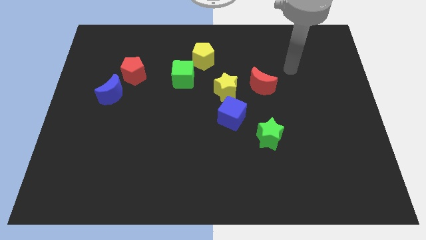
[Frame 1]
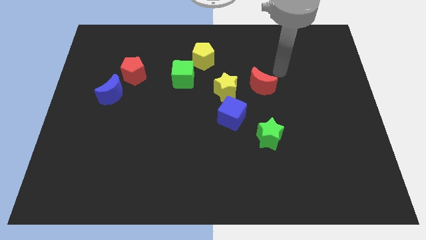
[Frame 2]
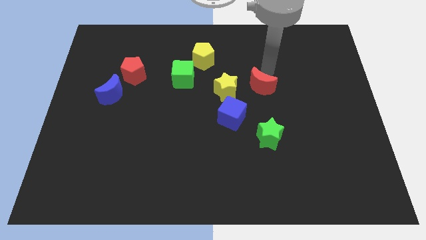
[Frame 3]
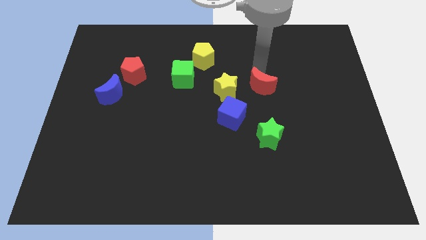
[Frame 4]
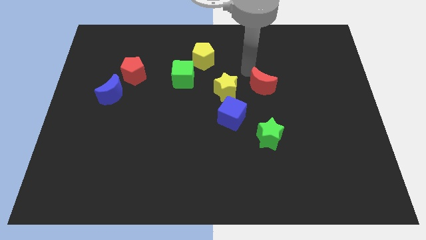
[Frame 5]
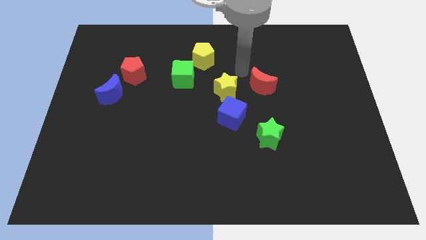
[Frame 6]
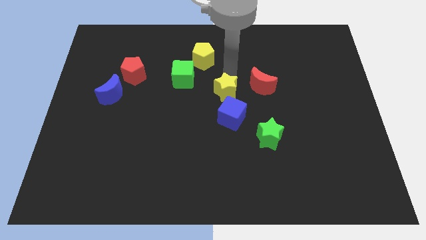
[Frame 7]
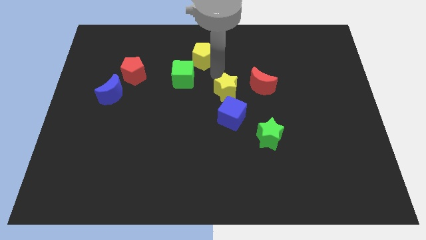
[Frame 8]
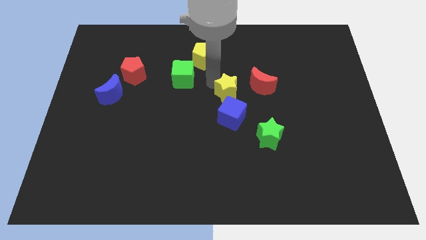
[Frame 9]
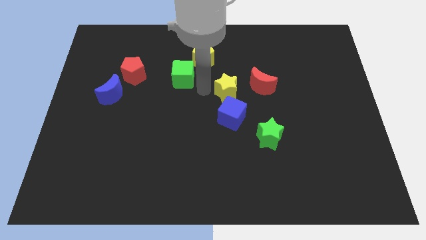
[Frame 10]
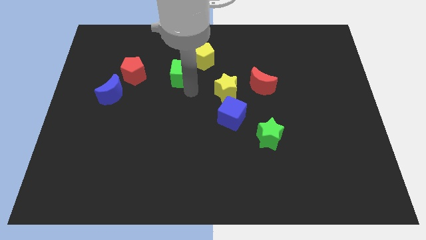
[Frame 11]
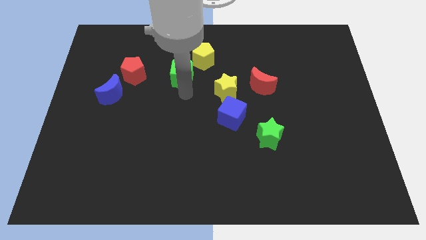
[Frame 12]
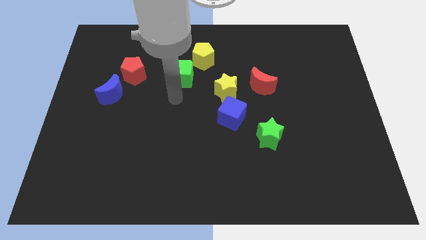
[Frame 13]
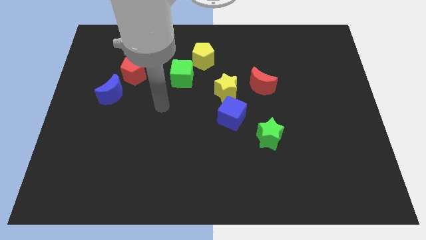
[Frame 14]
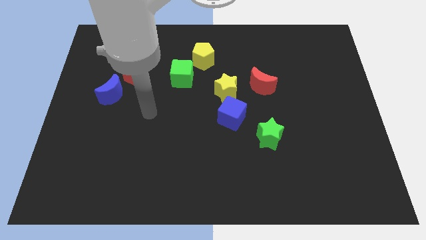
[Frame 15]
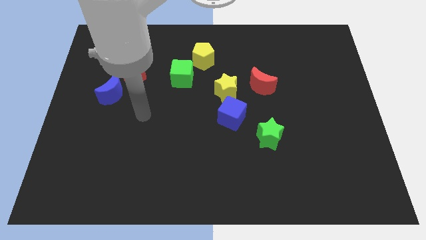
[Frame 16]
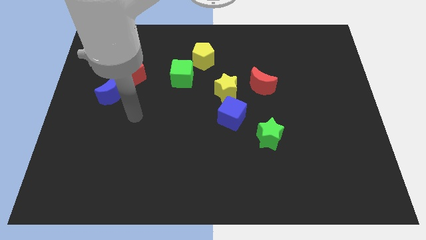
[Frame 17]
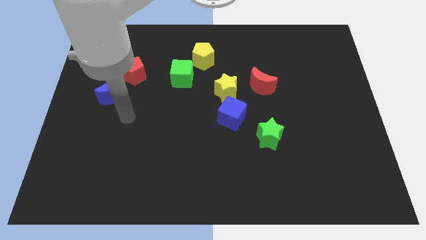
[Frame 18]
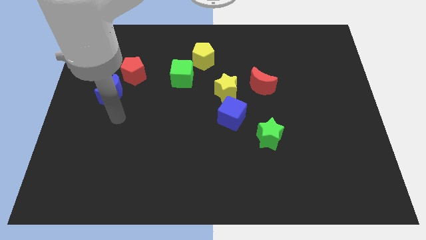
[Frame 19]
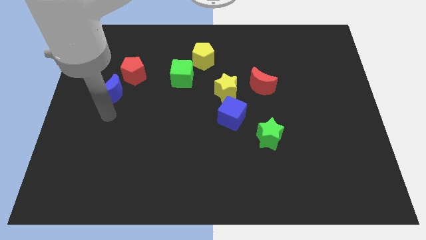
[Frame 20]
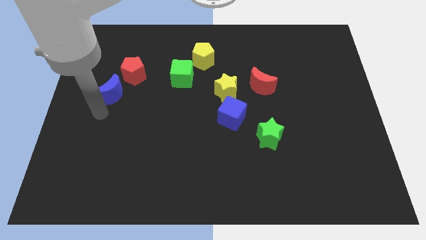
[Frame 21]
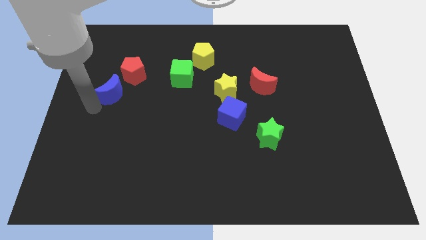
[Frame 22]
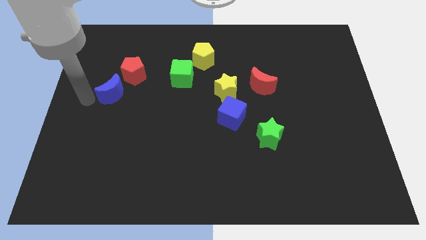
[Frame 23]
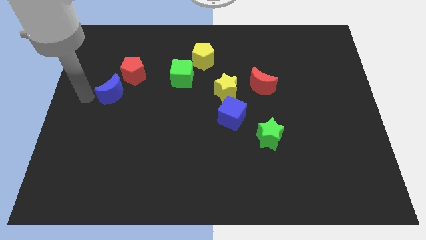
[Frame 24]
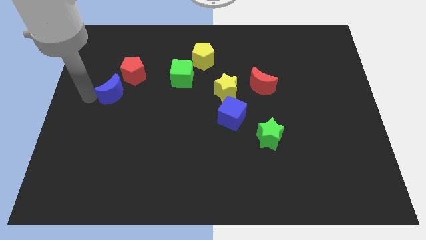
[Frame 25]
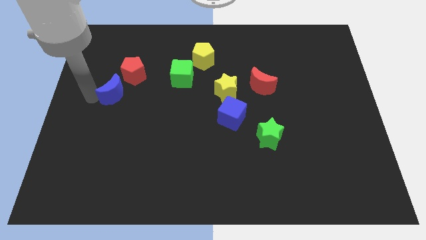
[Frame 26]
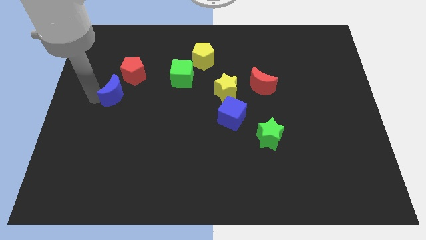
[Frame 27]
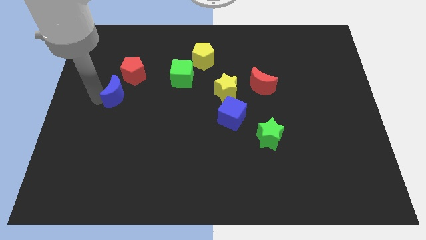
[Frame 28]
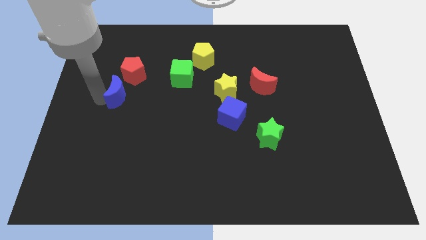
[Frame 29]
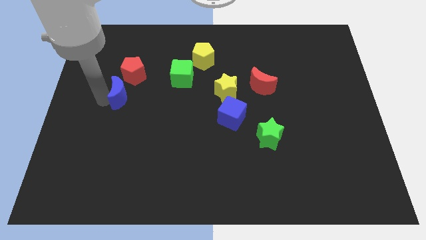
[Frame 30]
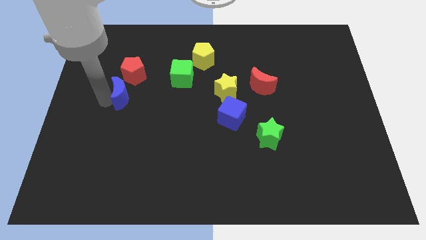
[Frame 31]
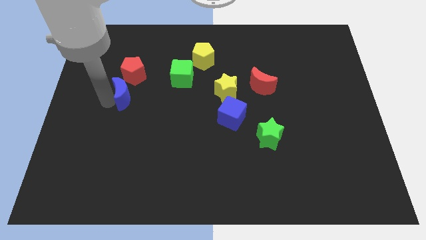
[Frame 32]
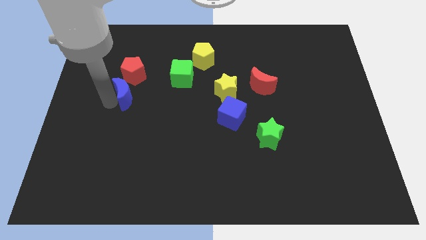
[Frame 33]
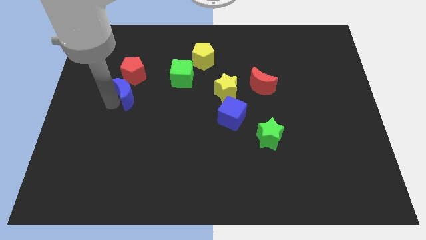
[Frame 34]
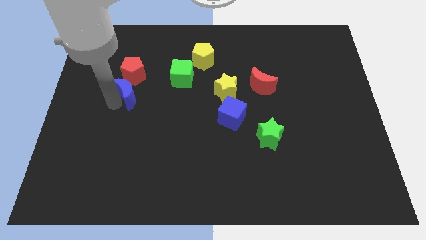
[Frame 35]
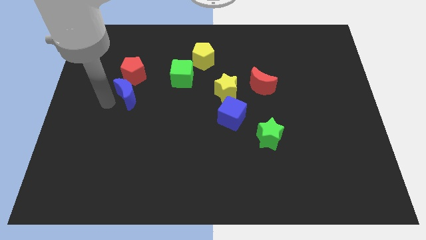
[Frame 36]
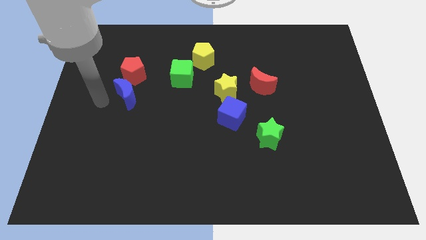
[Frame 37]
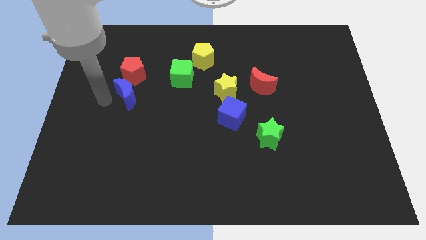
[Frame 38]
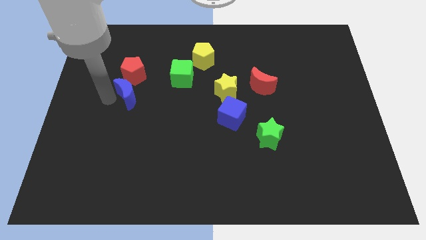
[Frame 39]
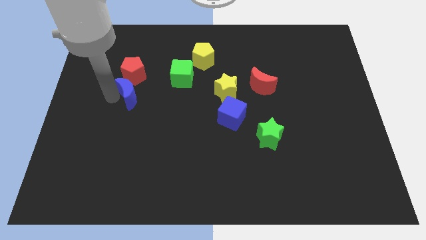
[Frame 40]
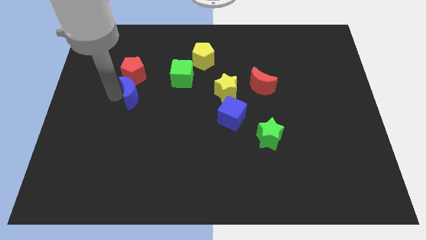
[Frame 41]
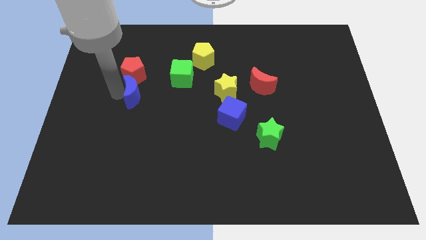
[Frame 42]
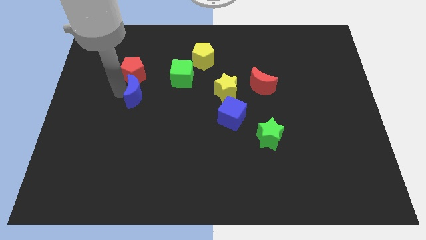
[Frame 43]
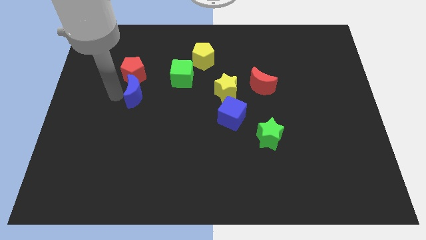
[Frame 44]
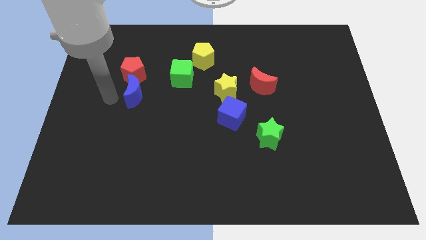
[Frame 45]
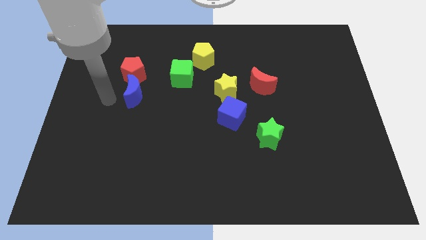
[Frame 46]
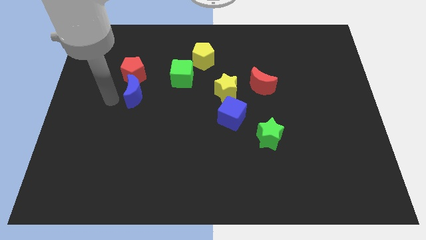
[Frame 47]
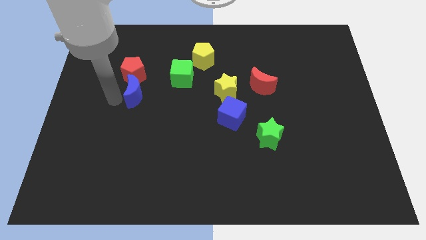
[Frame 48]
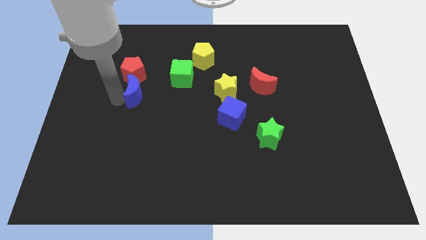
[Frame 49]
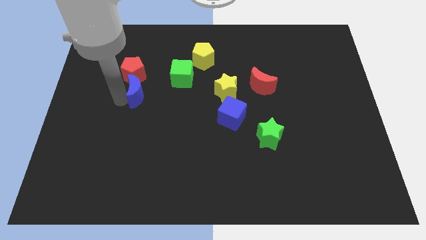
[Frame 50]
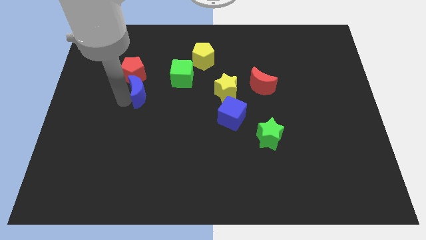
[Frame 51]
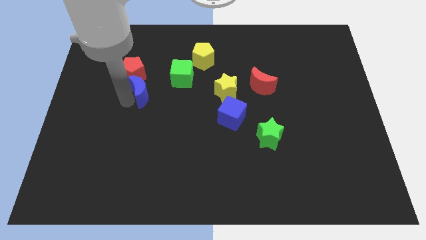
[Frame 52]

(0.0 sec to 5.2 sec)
move the blue moon a bit right

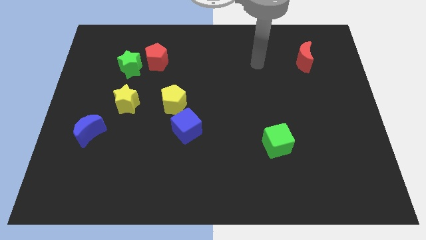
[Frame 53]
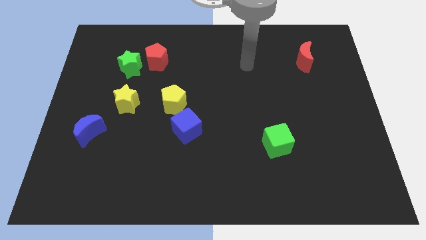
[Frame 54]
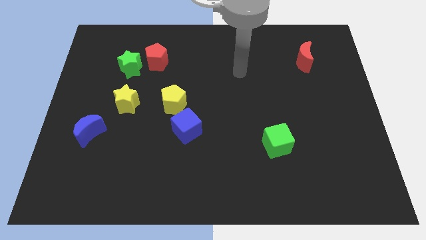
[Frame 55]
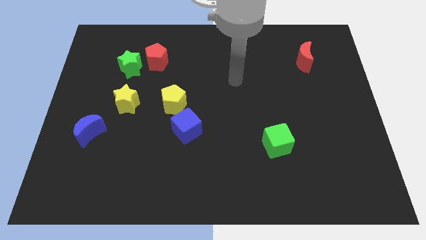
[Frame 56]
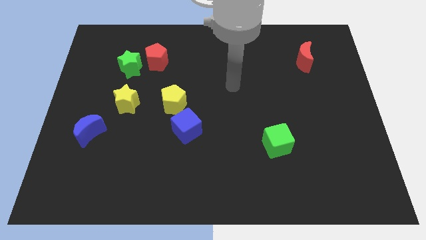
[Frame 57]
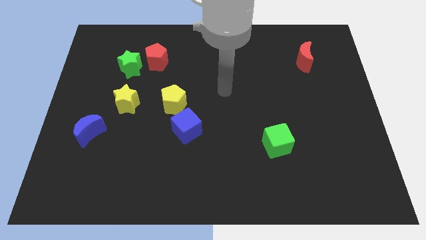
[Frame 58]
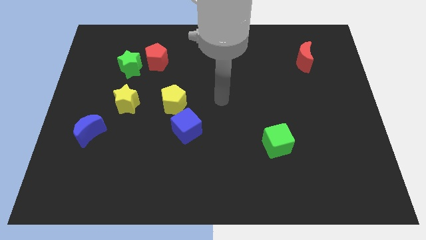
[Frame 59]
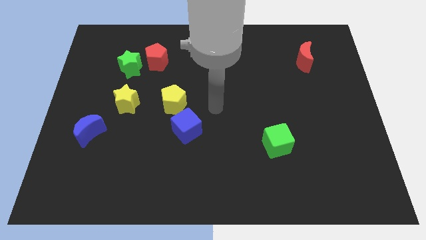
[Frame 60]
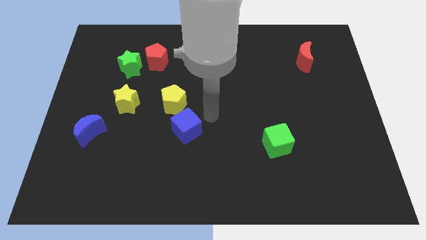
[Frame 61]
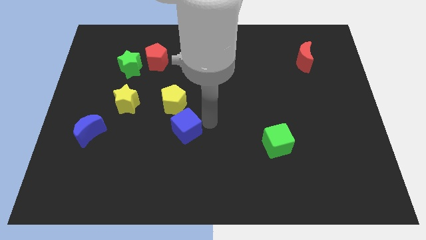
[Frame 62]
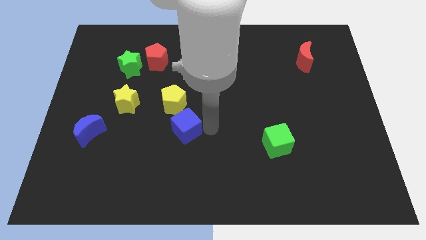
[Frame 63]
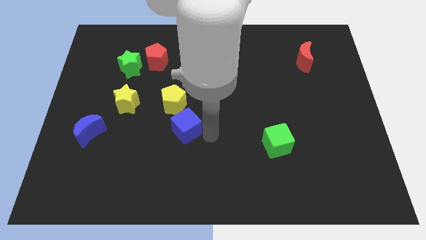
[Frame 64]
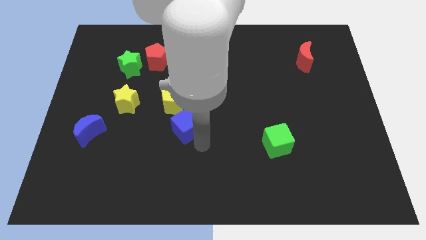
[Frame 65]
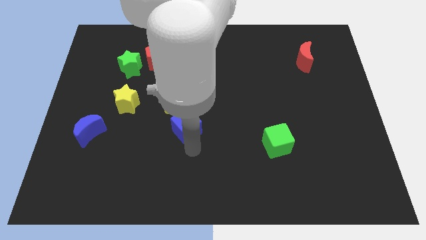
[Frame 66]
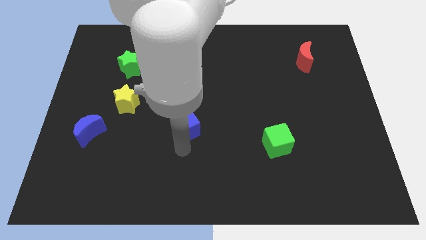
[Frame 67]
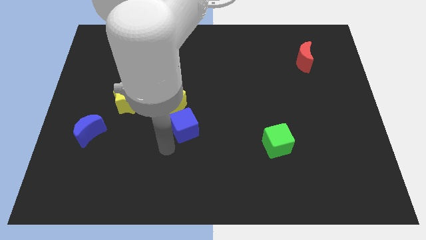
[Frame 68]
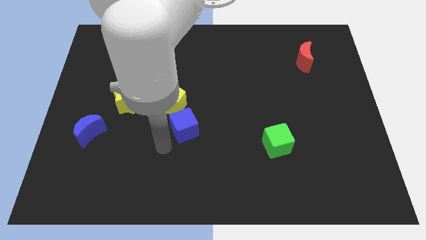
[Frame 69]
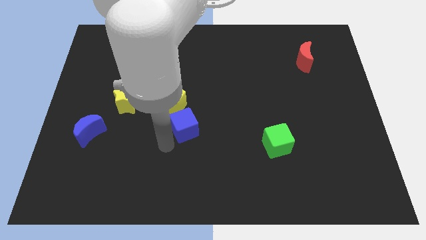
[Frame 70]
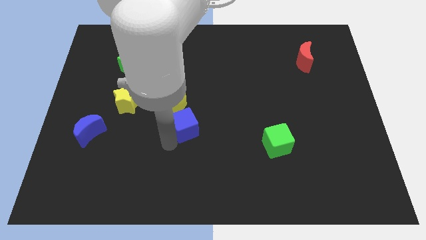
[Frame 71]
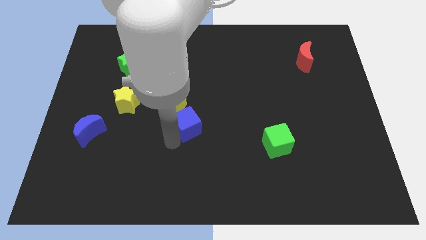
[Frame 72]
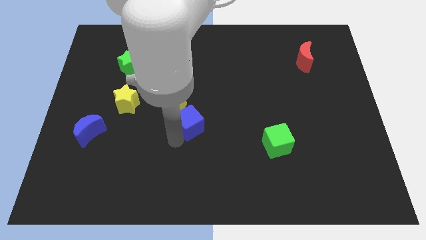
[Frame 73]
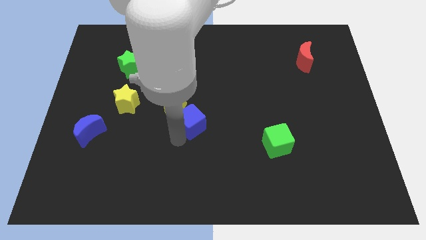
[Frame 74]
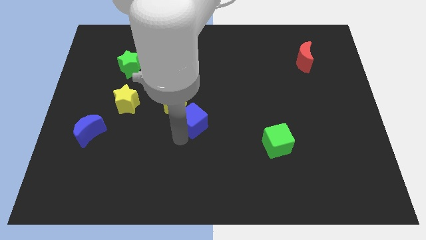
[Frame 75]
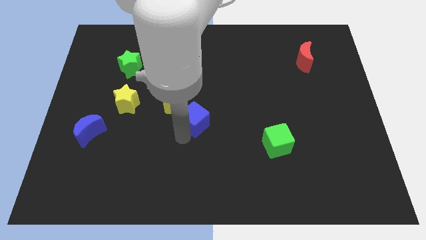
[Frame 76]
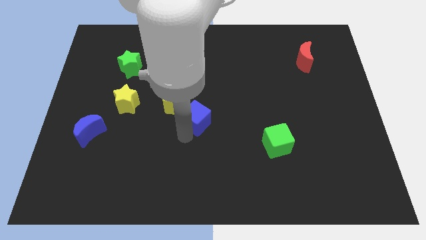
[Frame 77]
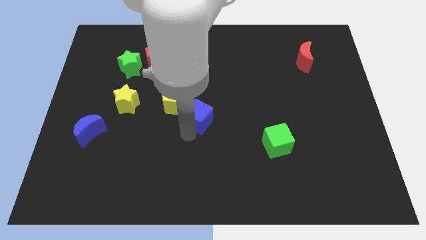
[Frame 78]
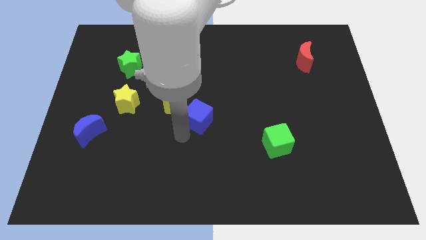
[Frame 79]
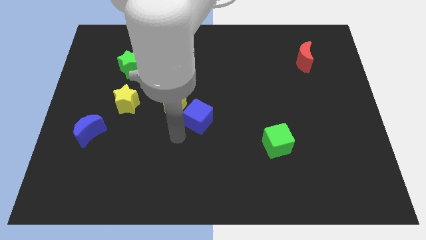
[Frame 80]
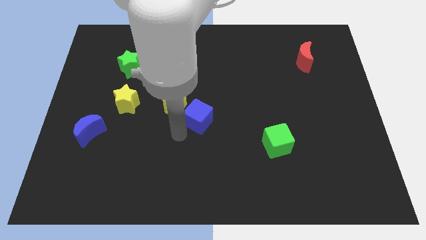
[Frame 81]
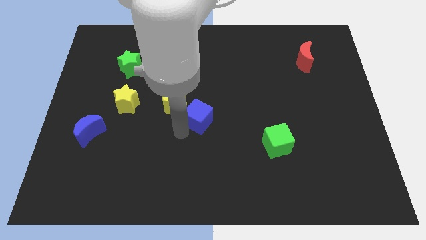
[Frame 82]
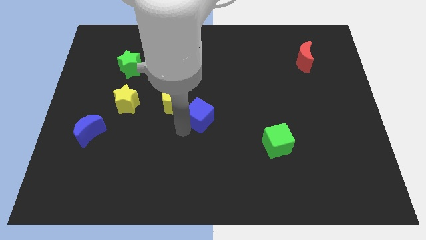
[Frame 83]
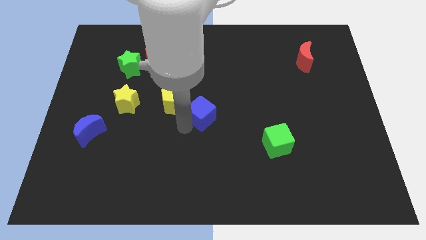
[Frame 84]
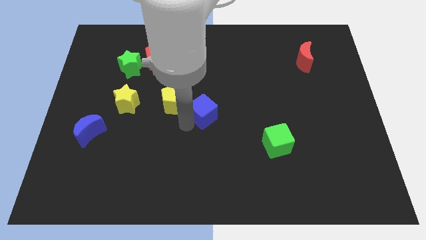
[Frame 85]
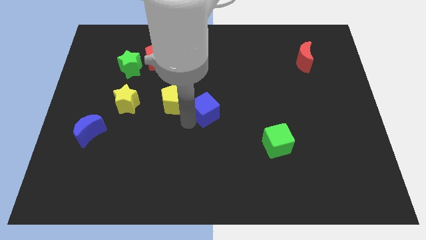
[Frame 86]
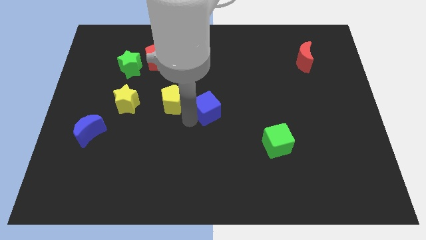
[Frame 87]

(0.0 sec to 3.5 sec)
move the blue cube somewhat diagonally upwards and to the right
